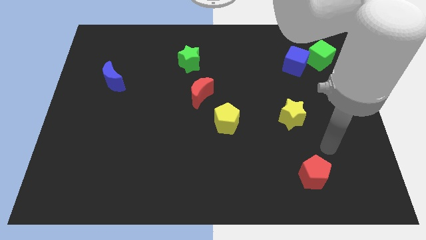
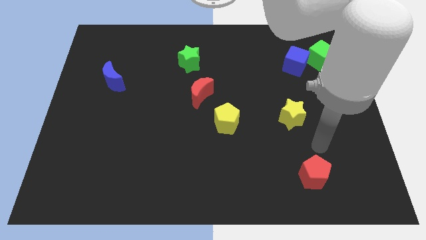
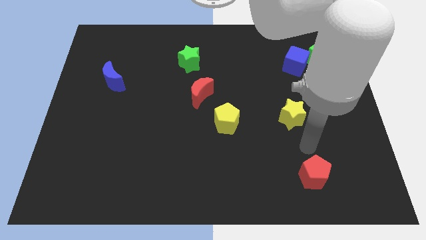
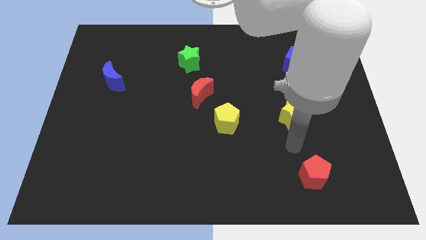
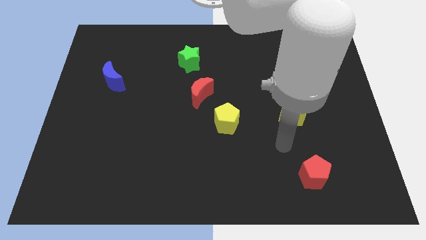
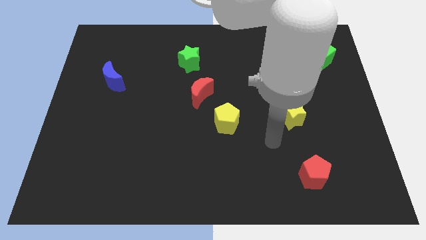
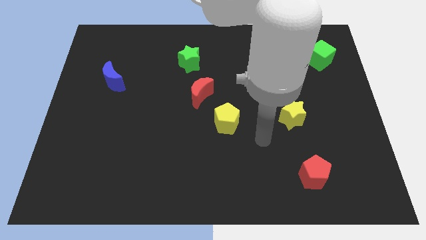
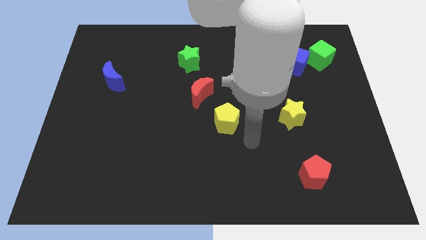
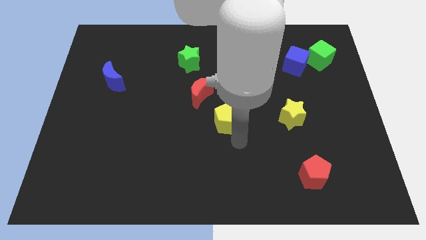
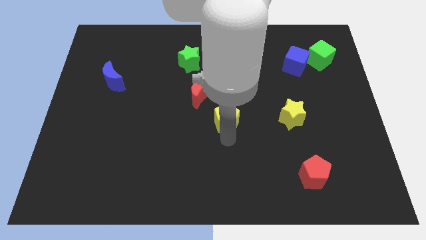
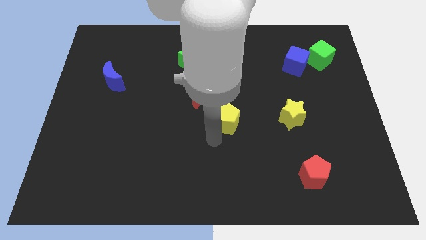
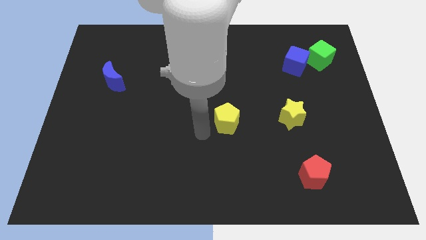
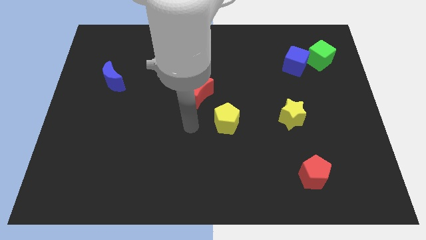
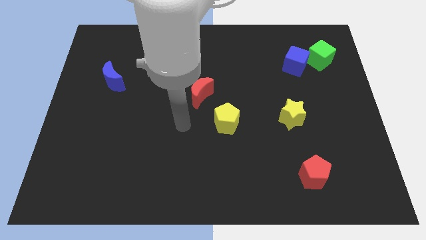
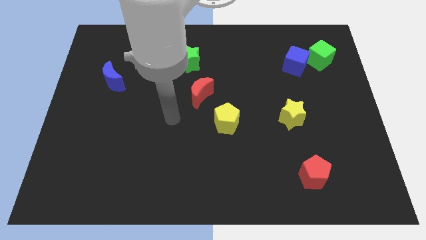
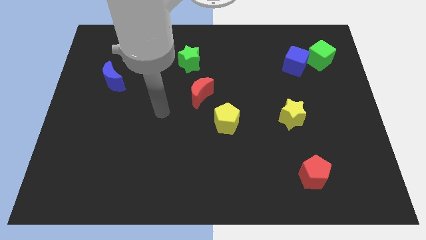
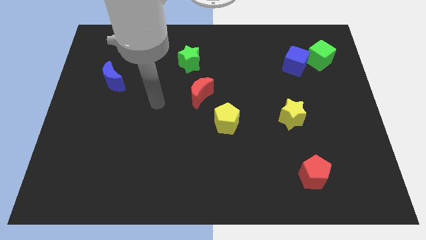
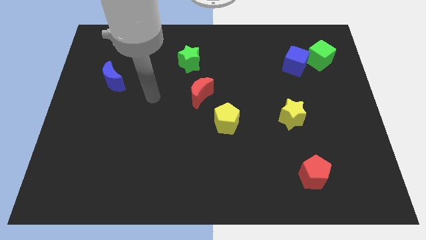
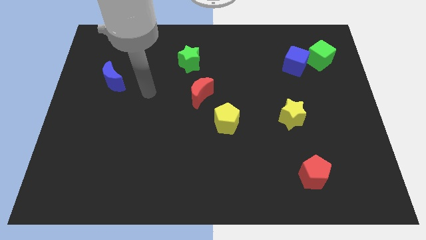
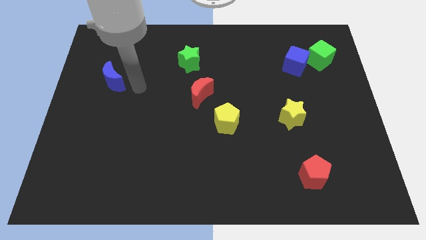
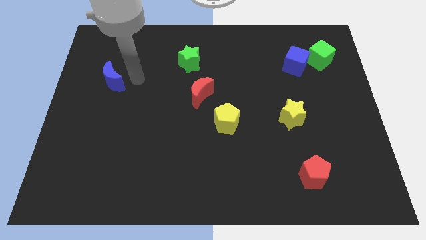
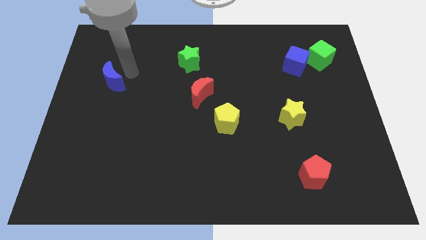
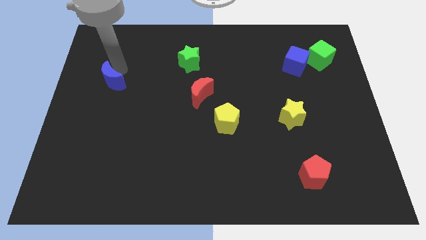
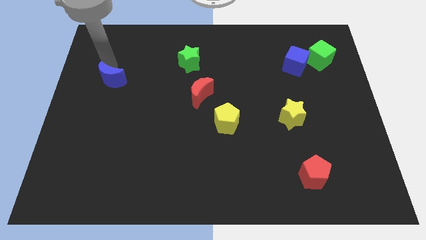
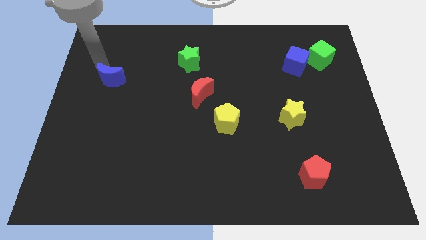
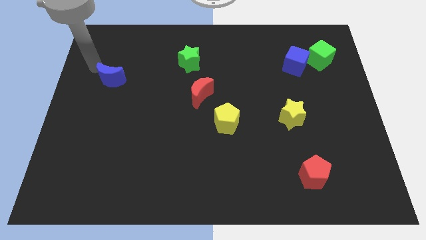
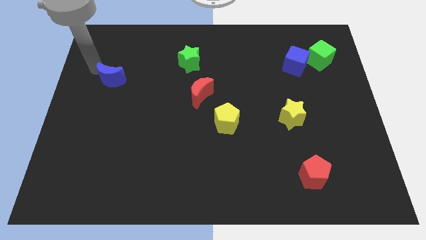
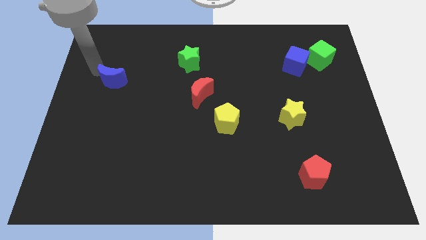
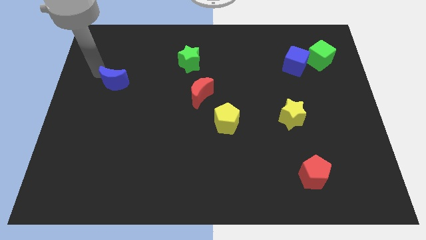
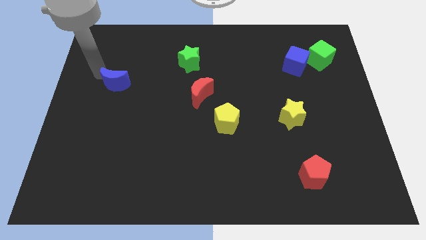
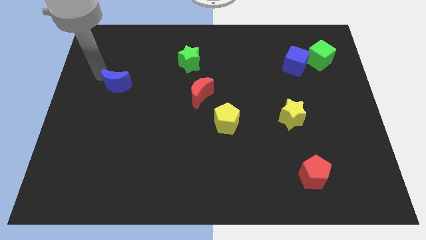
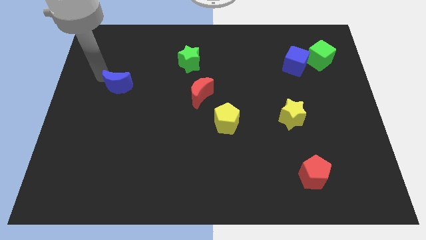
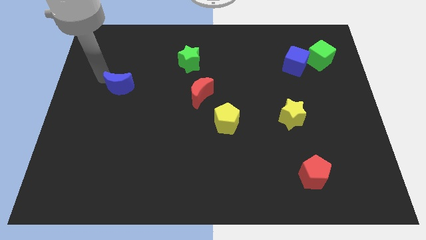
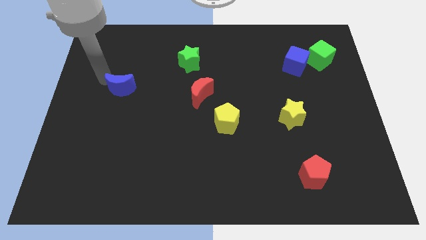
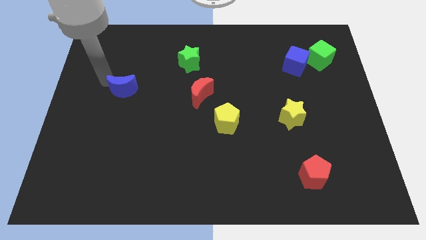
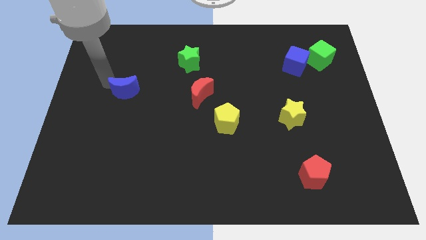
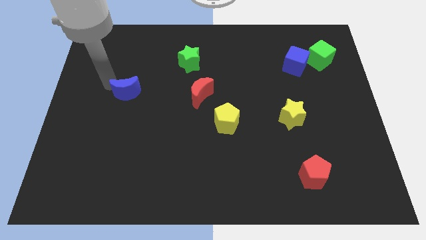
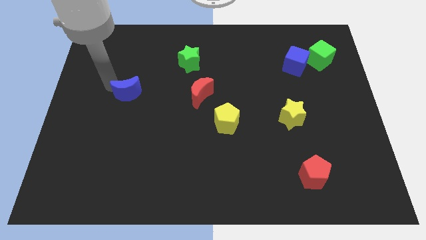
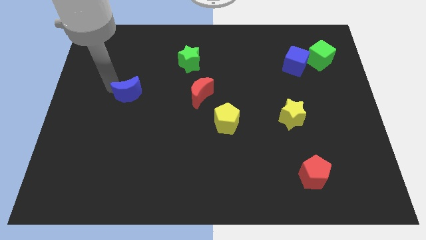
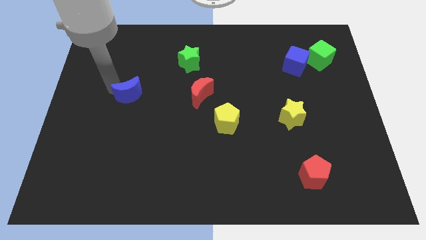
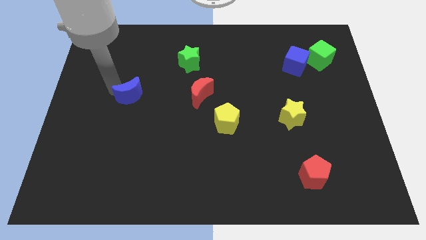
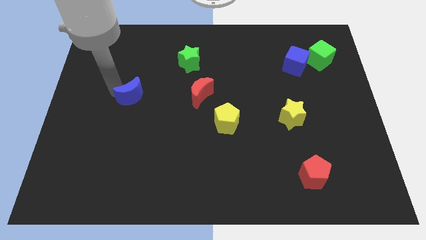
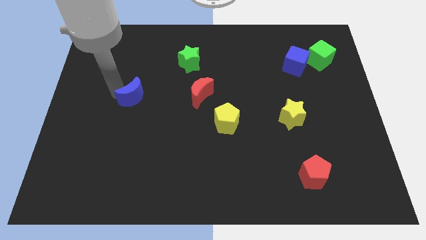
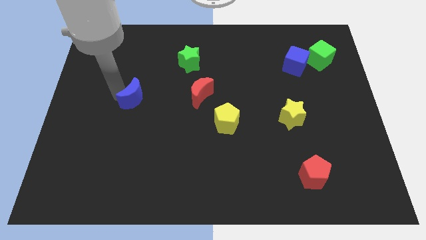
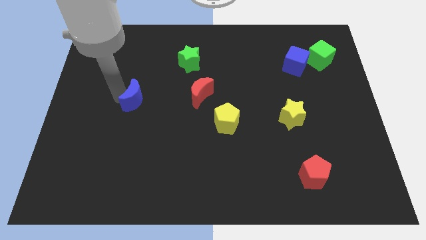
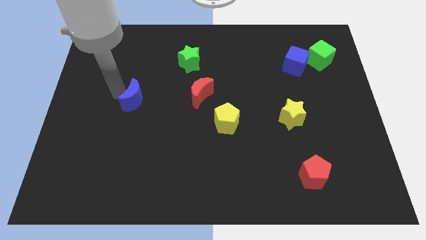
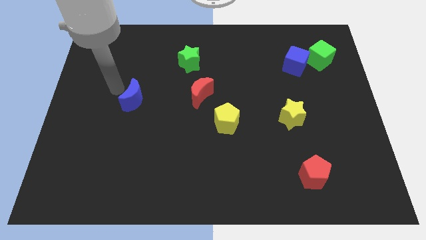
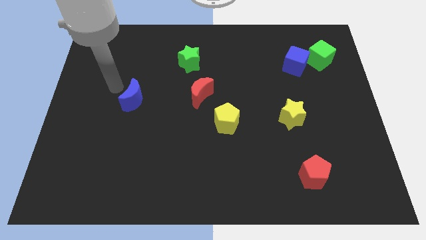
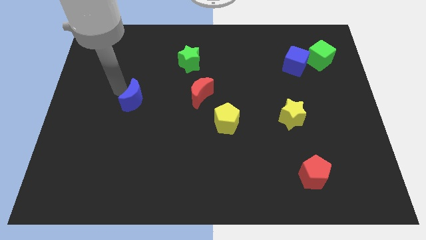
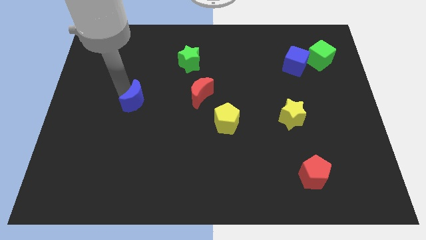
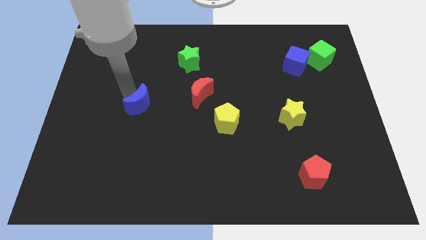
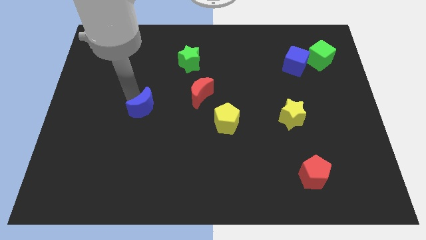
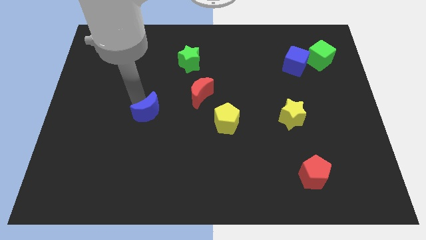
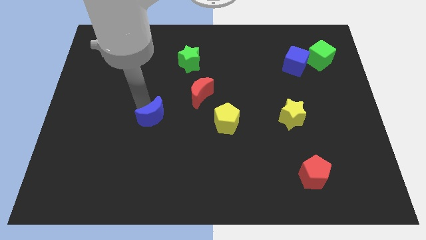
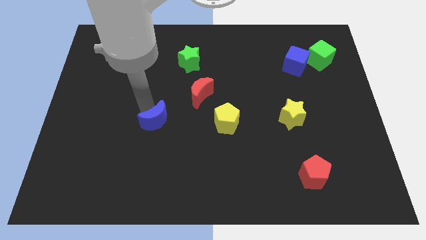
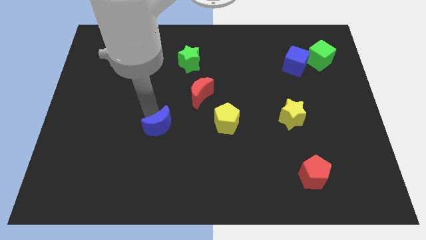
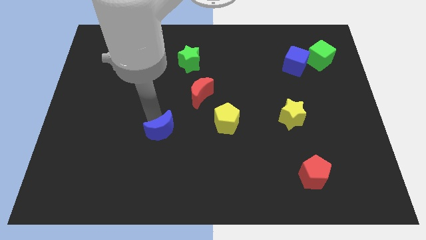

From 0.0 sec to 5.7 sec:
slide the blue moon down and then right

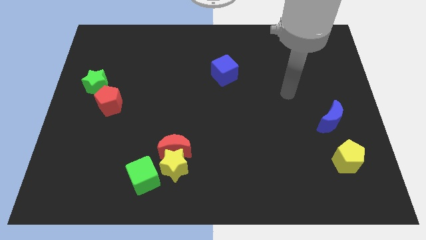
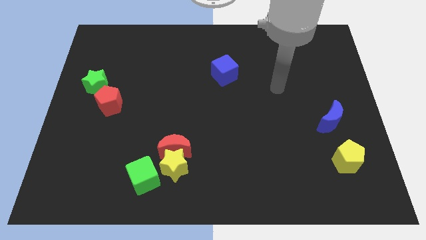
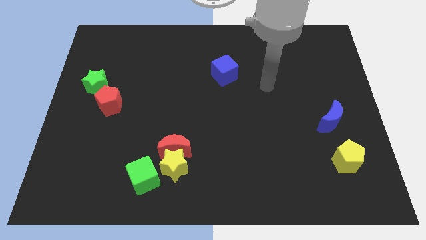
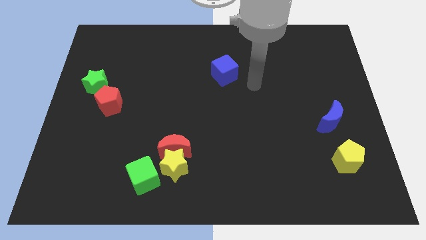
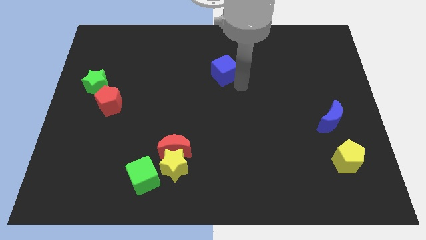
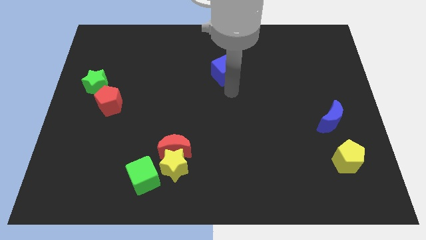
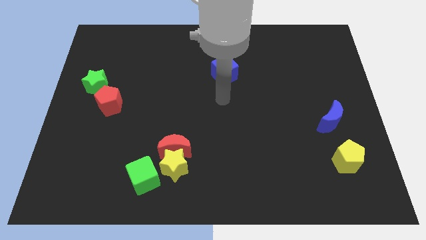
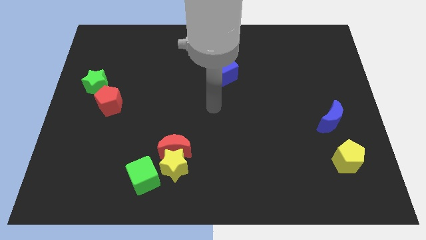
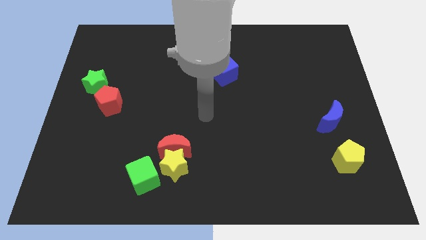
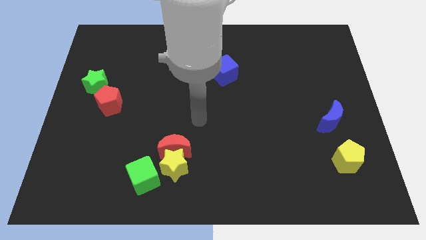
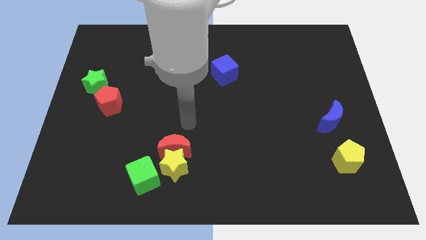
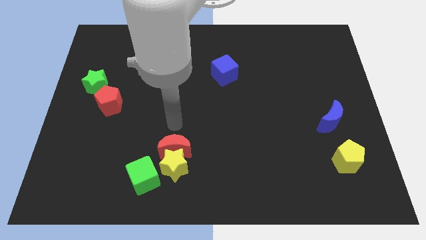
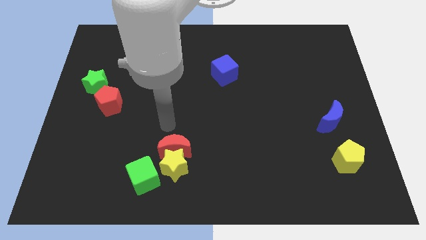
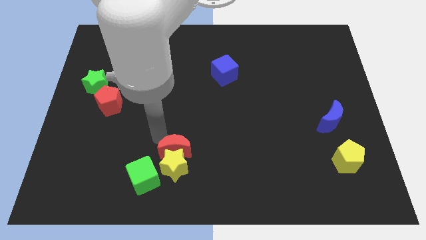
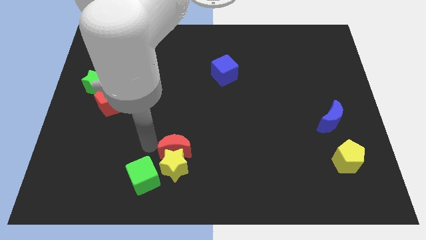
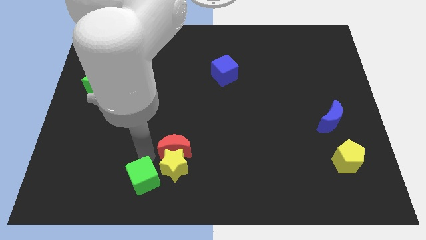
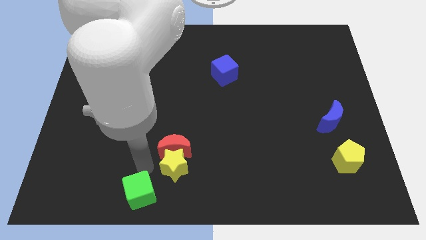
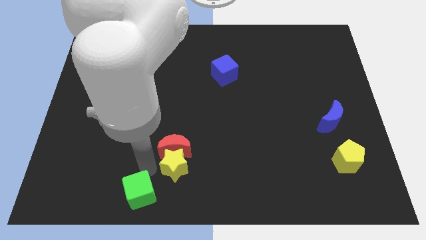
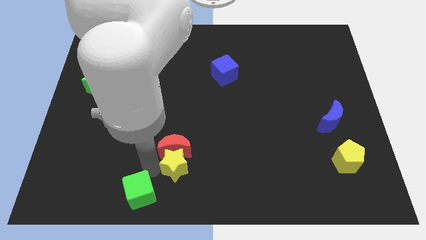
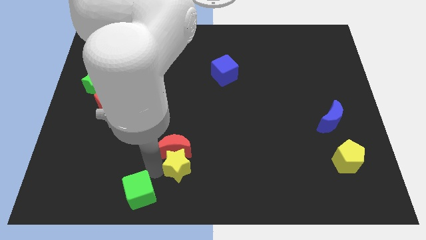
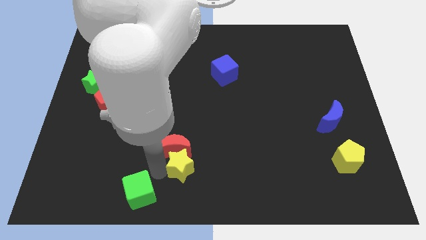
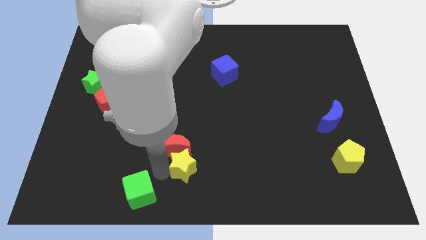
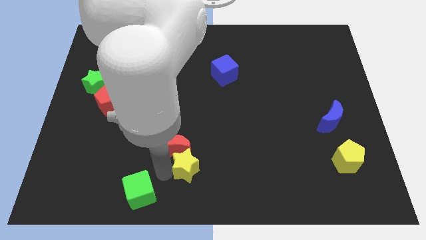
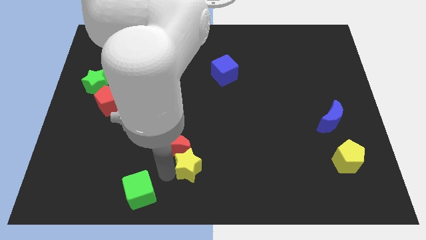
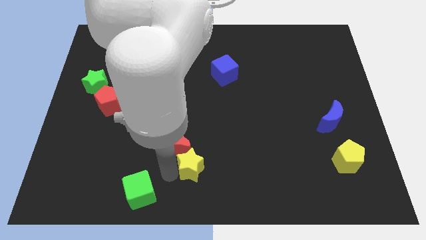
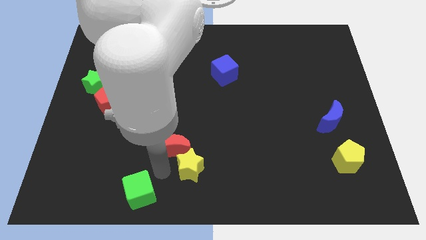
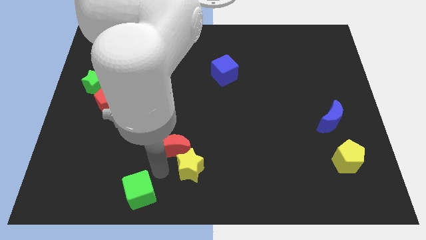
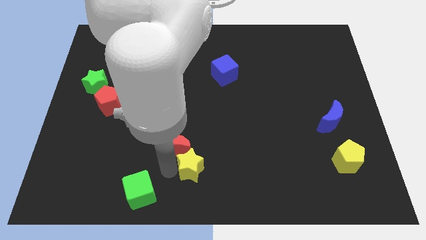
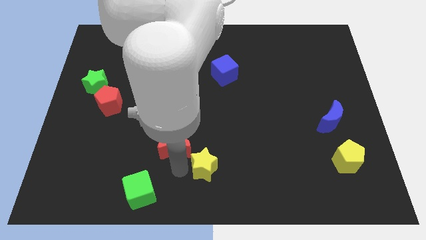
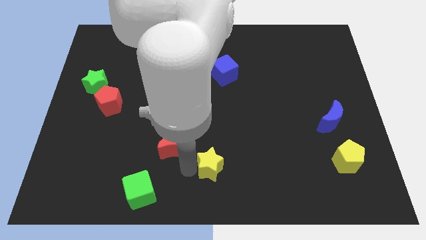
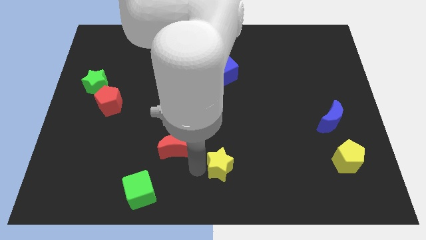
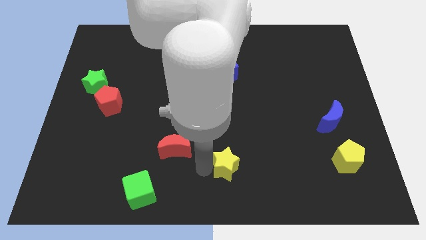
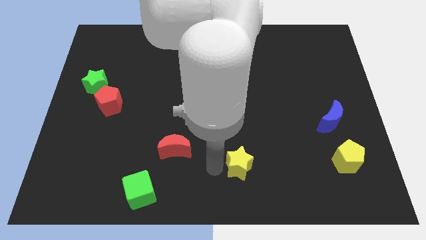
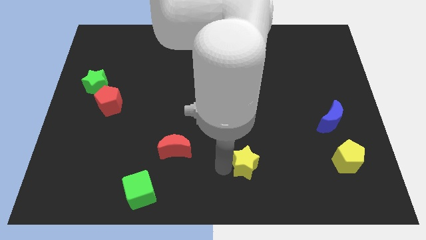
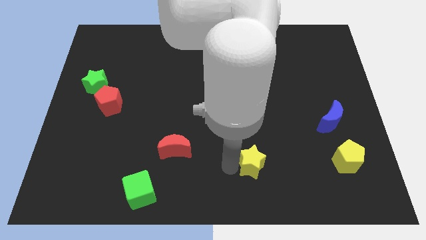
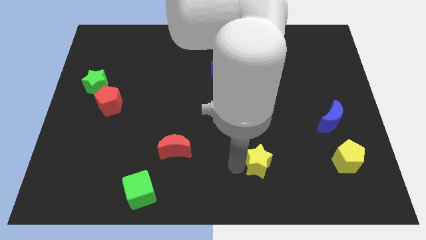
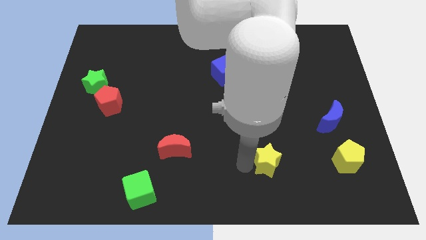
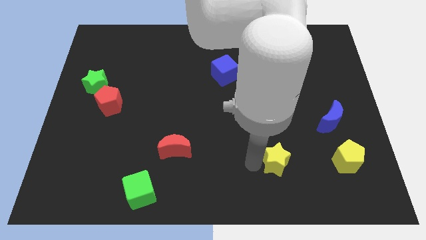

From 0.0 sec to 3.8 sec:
move the yellow star right
